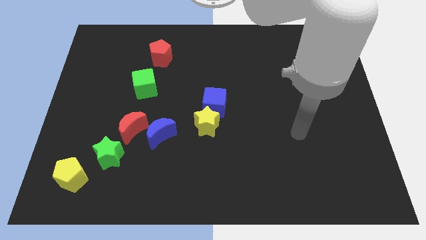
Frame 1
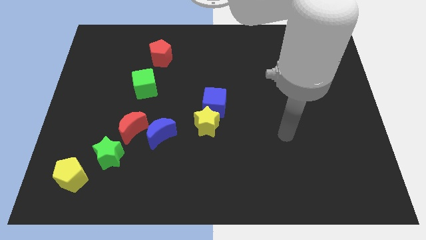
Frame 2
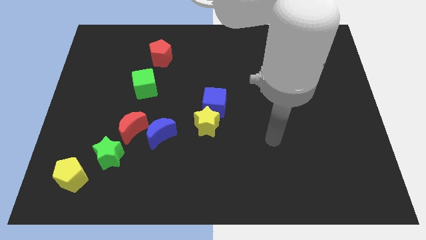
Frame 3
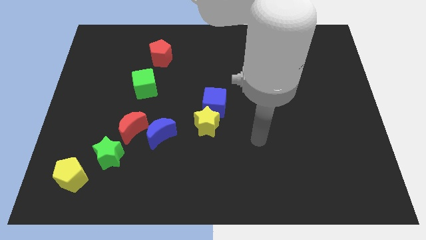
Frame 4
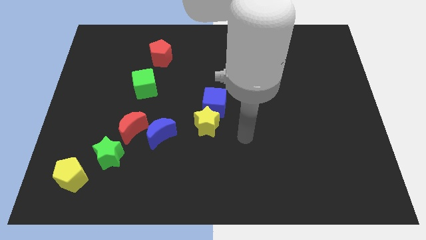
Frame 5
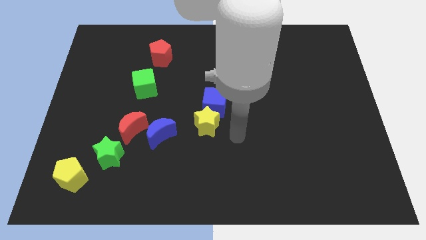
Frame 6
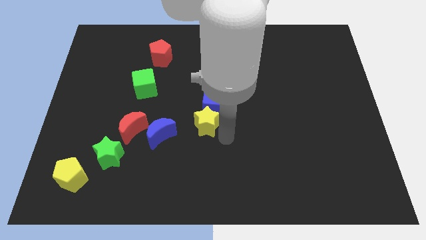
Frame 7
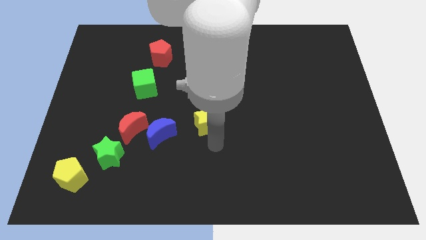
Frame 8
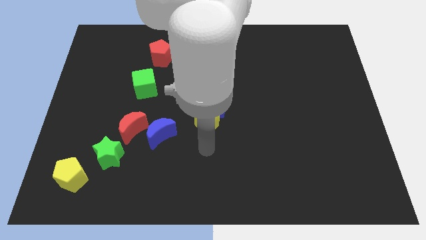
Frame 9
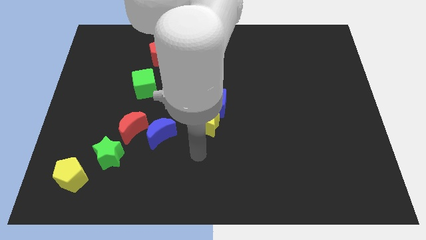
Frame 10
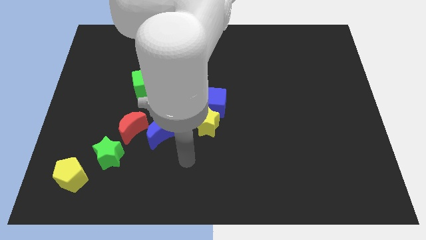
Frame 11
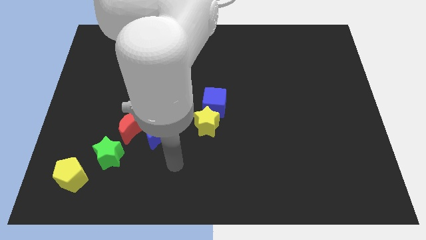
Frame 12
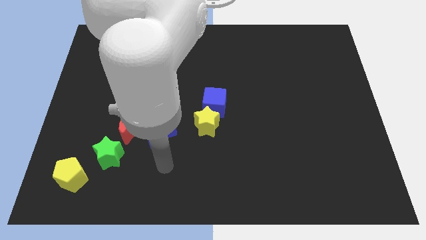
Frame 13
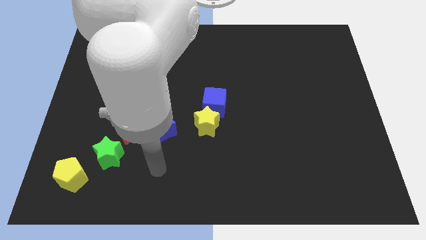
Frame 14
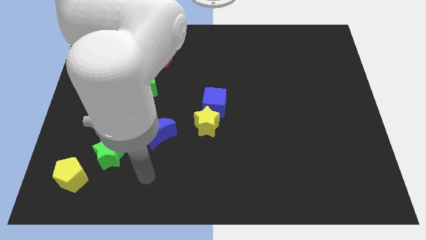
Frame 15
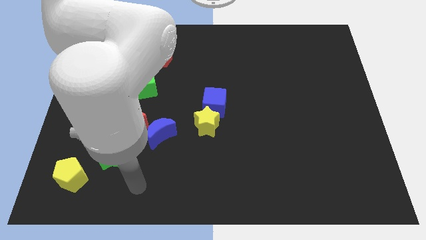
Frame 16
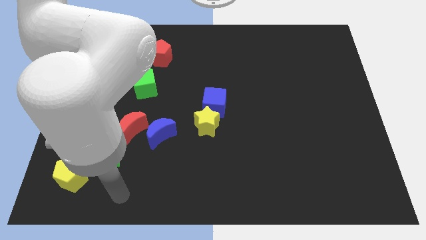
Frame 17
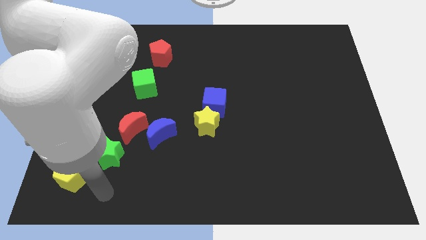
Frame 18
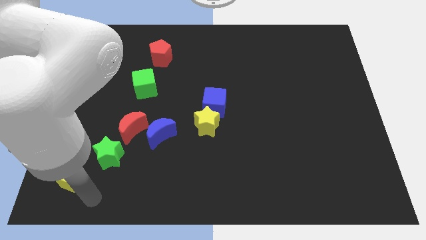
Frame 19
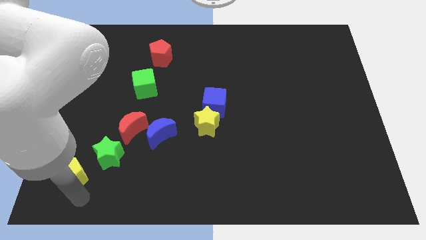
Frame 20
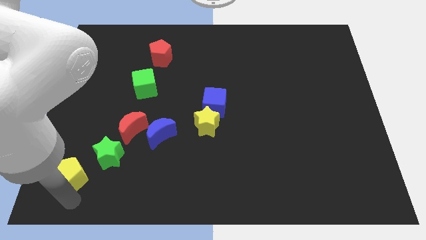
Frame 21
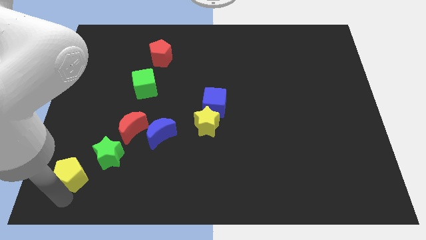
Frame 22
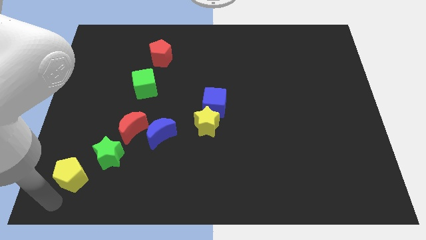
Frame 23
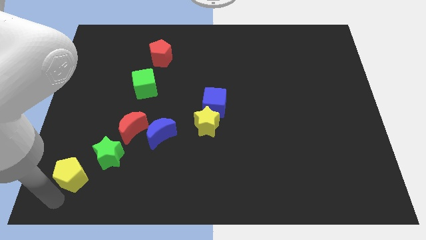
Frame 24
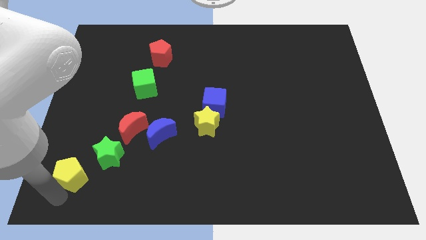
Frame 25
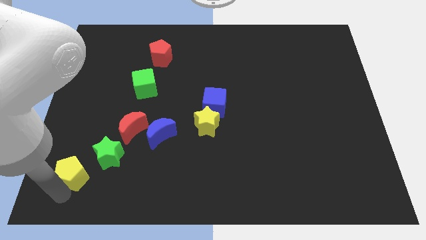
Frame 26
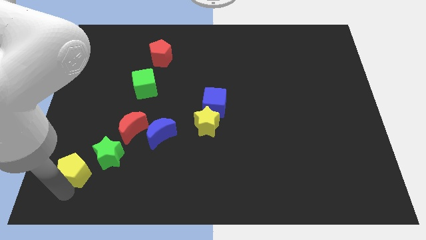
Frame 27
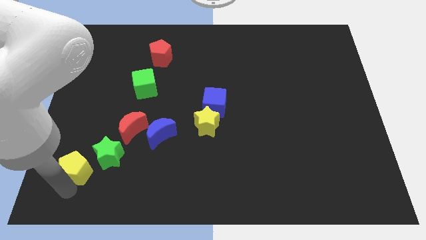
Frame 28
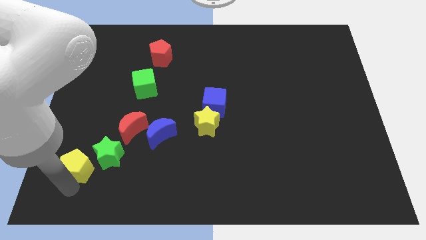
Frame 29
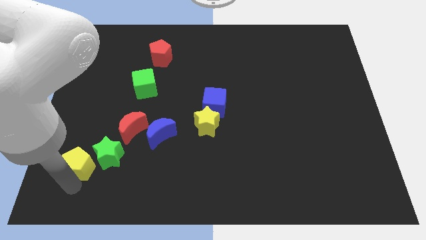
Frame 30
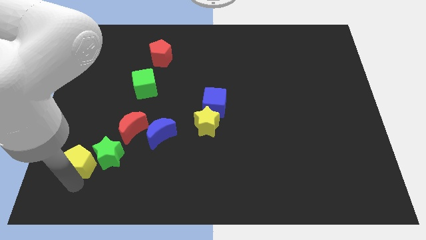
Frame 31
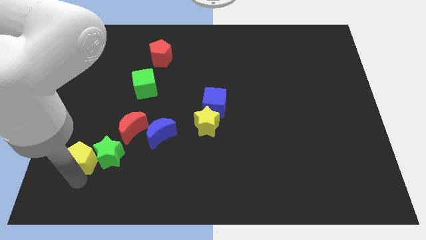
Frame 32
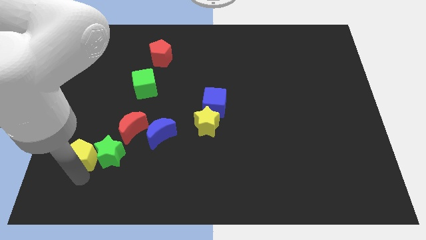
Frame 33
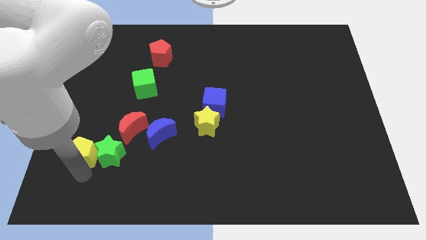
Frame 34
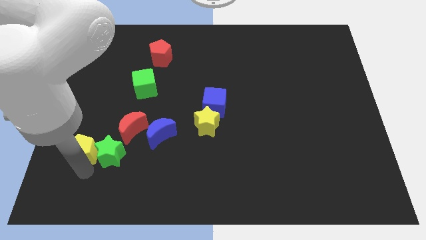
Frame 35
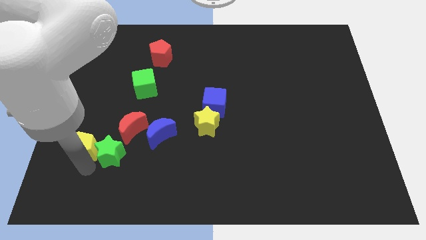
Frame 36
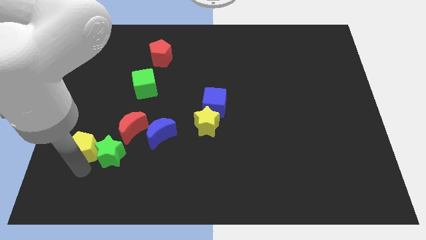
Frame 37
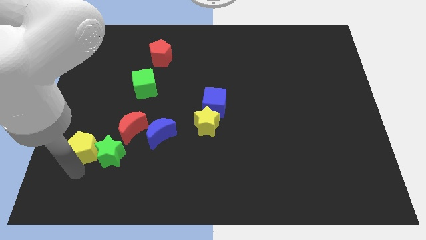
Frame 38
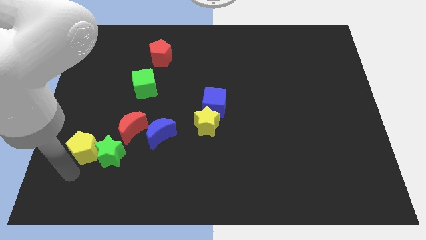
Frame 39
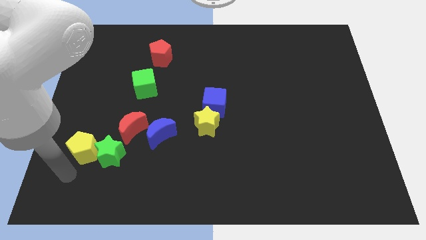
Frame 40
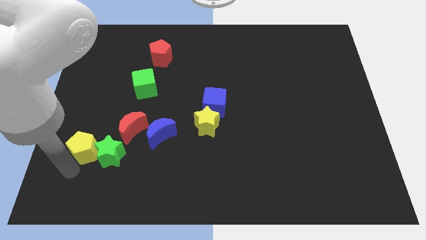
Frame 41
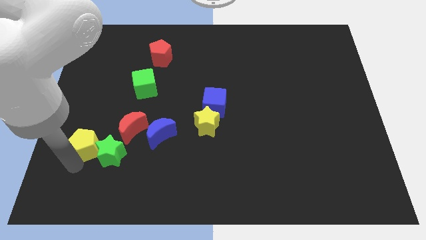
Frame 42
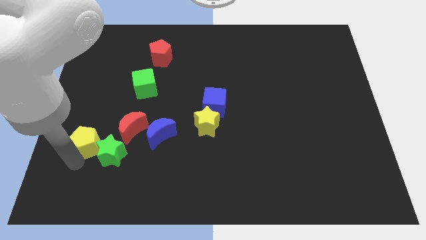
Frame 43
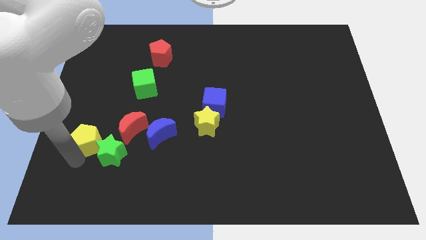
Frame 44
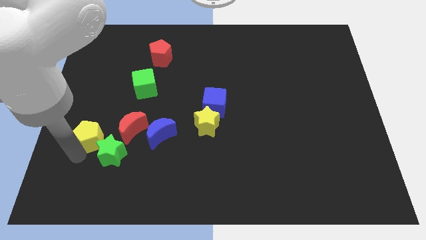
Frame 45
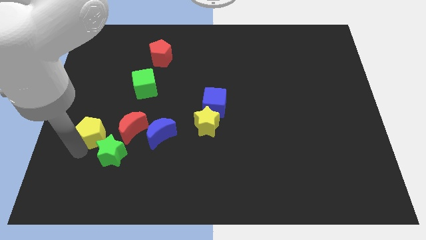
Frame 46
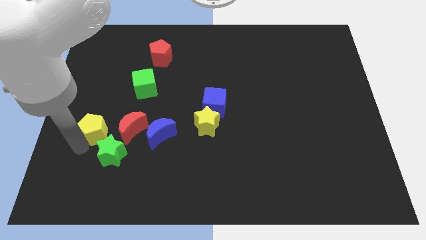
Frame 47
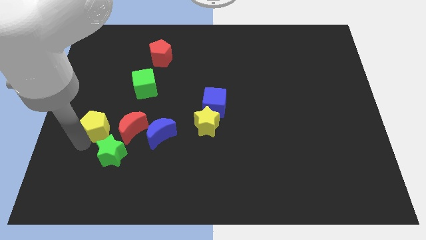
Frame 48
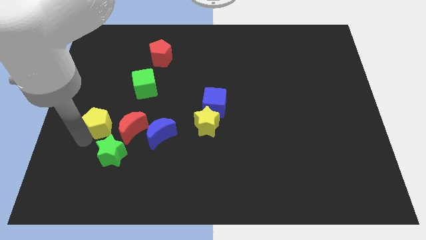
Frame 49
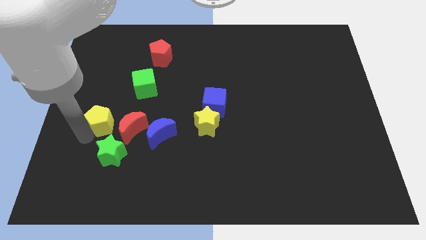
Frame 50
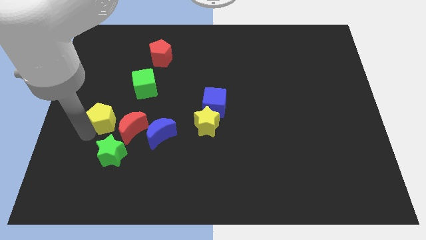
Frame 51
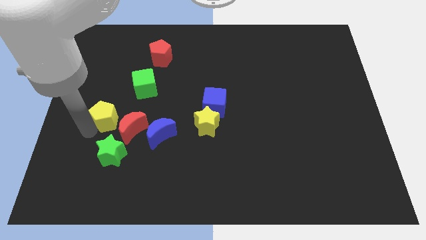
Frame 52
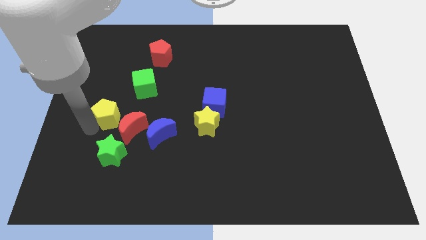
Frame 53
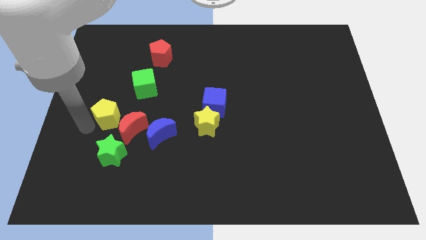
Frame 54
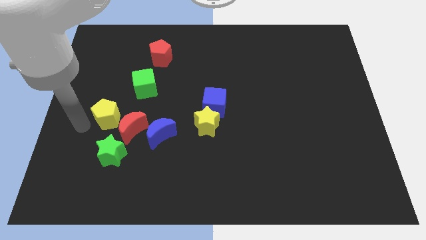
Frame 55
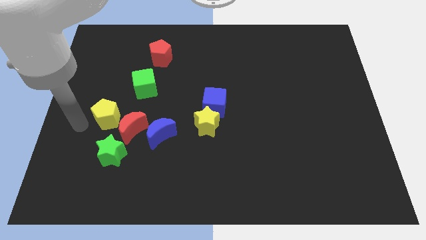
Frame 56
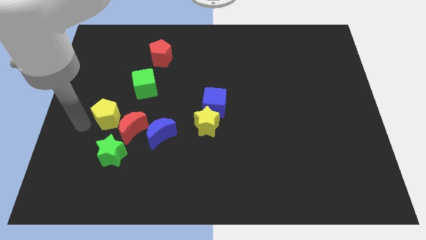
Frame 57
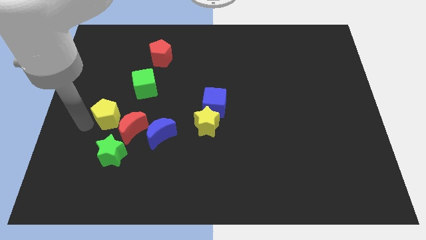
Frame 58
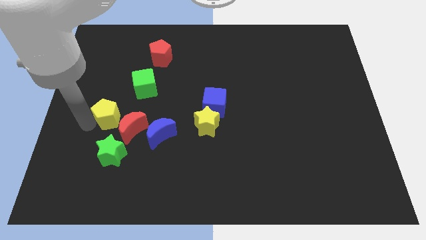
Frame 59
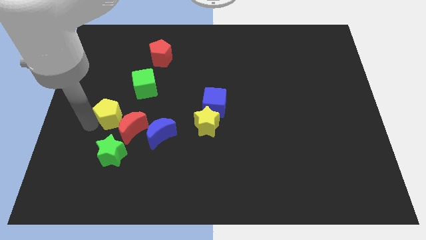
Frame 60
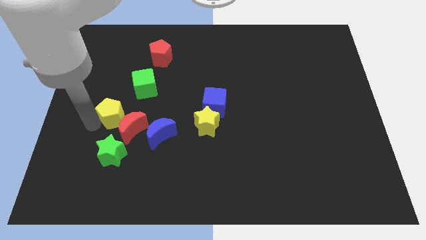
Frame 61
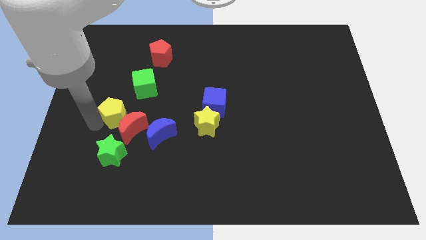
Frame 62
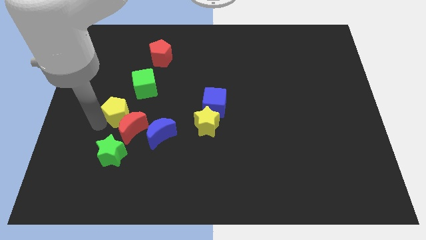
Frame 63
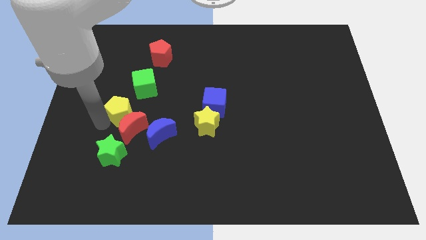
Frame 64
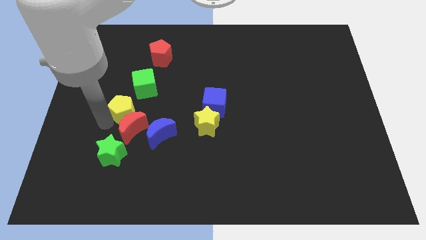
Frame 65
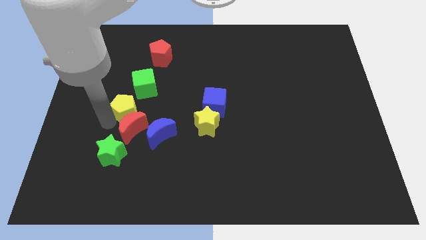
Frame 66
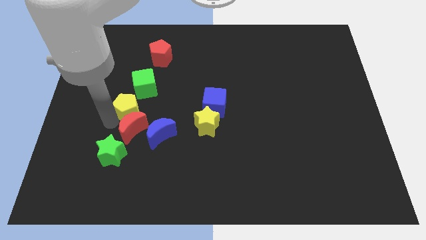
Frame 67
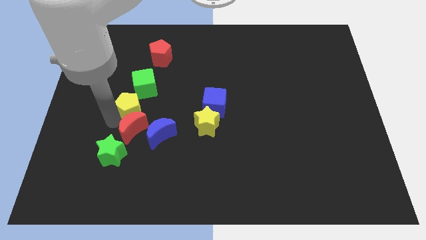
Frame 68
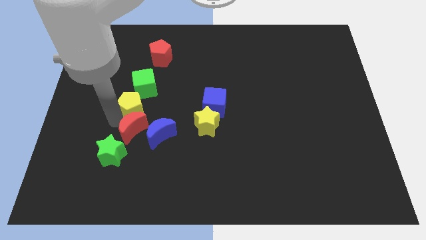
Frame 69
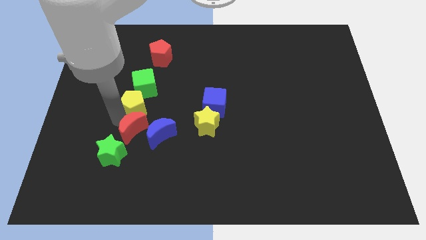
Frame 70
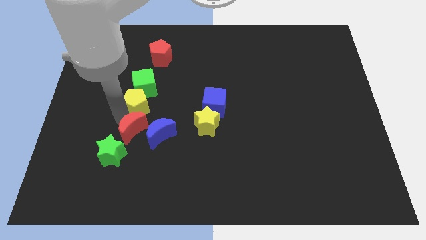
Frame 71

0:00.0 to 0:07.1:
slide the yellow pentagon diagonally down and to the right of the green cube
